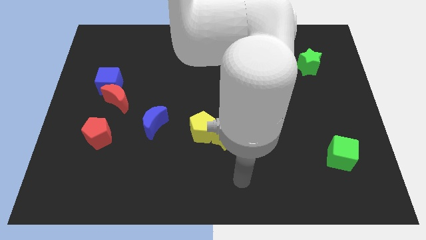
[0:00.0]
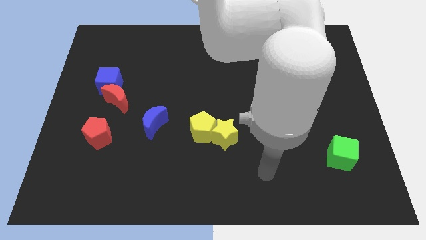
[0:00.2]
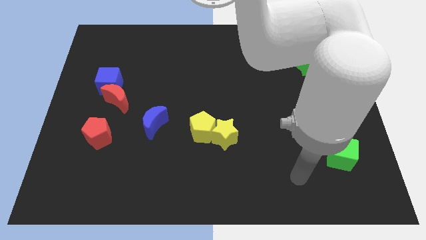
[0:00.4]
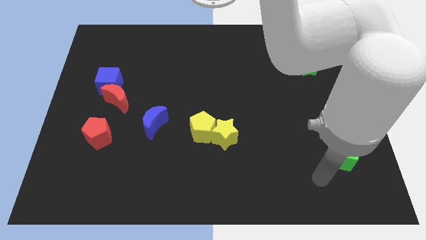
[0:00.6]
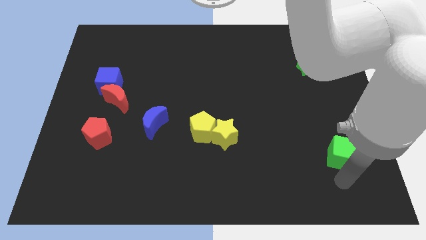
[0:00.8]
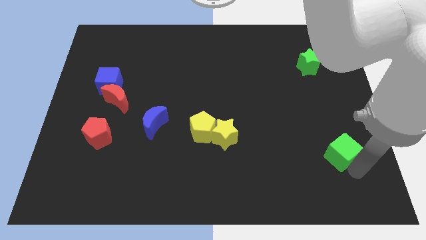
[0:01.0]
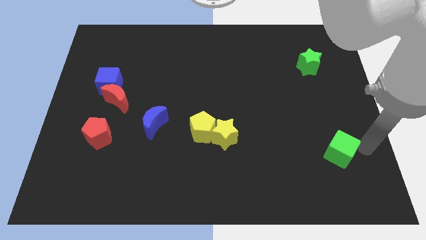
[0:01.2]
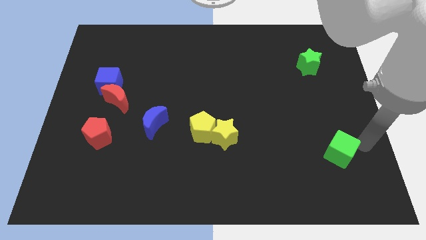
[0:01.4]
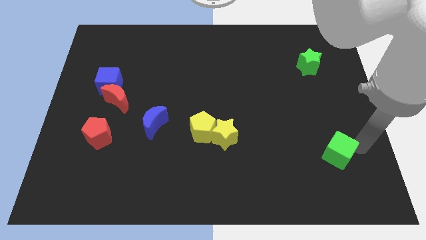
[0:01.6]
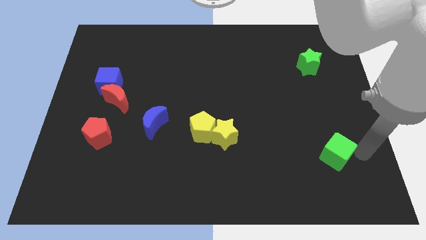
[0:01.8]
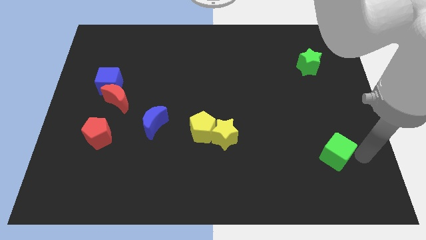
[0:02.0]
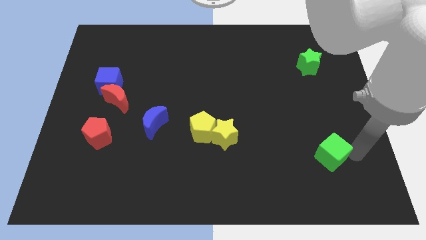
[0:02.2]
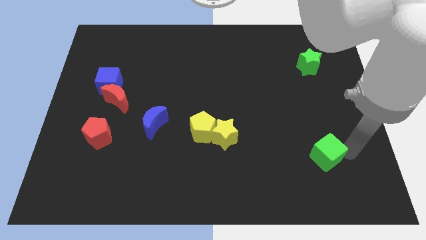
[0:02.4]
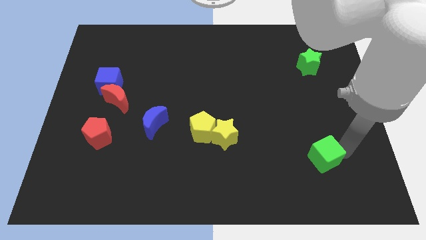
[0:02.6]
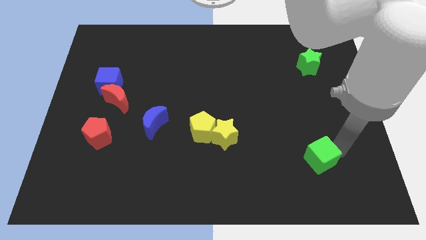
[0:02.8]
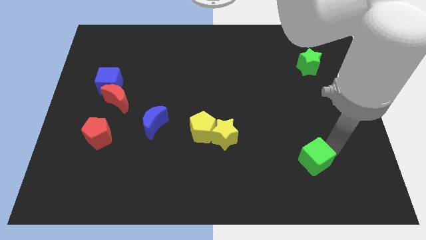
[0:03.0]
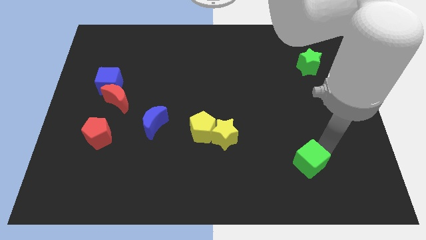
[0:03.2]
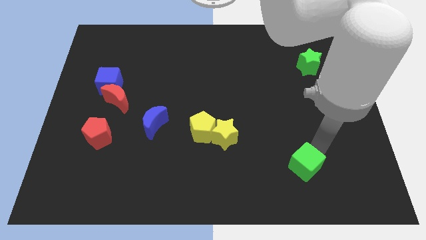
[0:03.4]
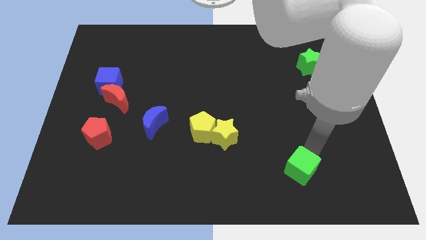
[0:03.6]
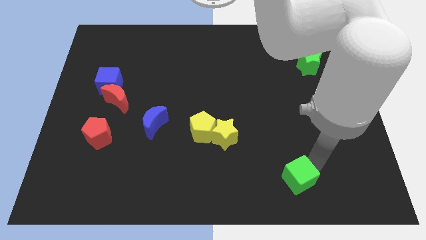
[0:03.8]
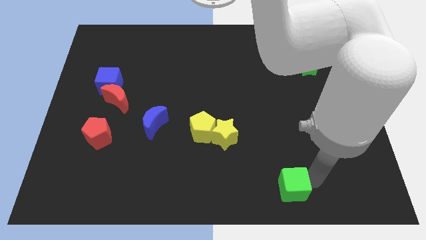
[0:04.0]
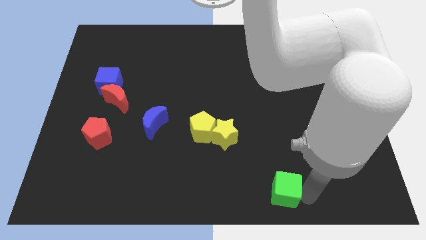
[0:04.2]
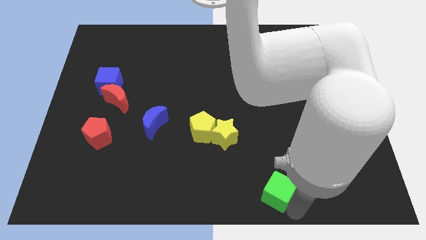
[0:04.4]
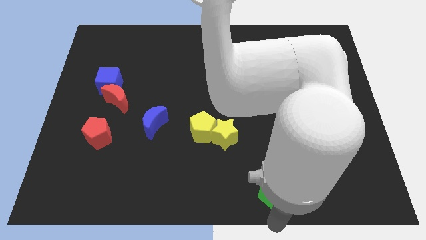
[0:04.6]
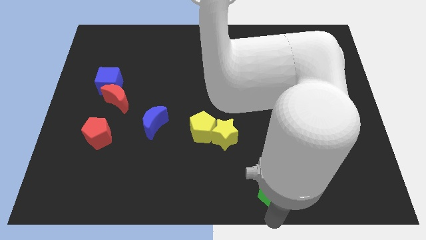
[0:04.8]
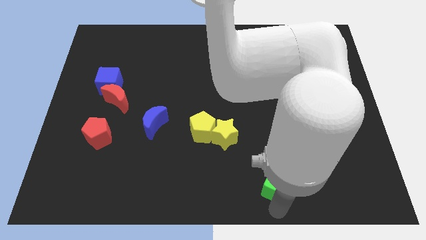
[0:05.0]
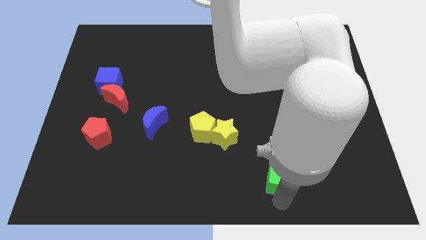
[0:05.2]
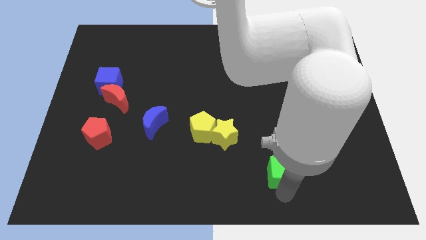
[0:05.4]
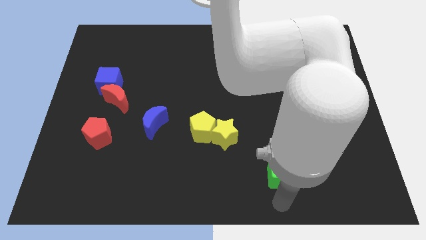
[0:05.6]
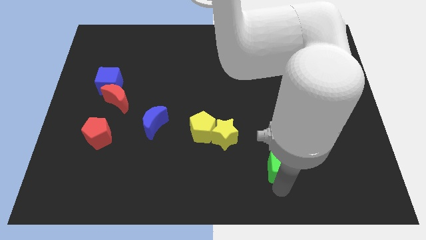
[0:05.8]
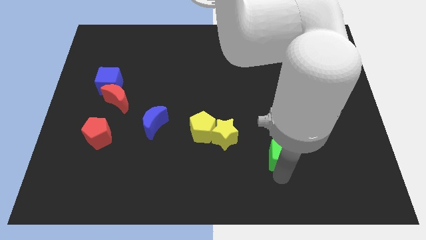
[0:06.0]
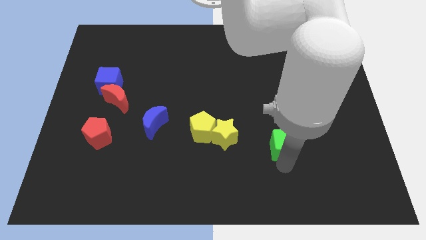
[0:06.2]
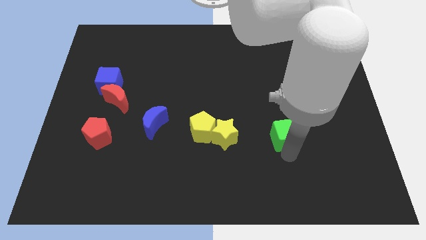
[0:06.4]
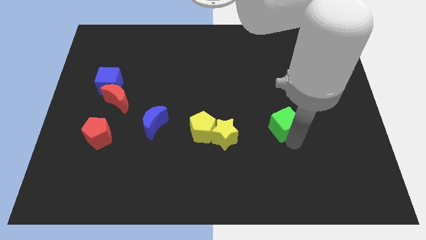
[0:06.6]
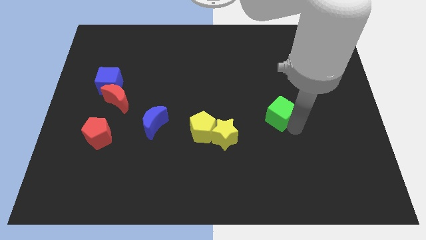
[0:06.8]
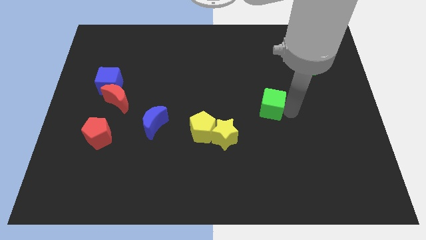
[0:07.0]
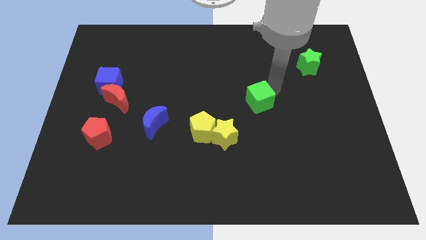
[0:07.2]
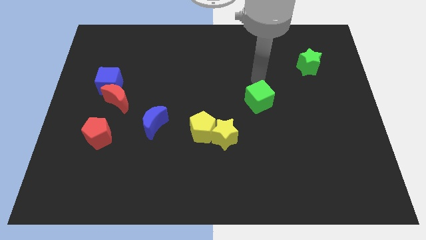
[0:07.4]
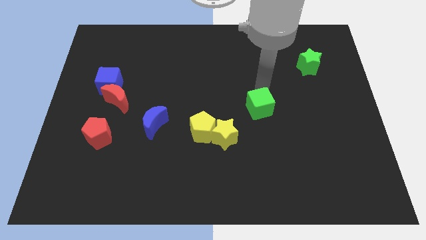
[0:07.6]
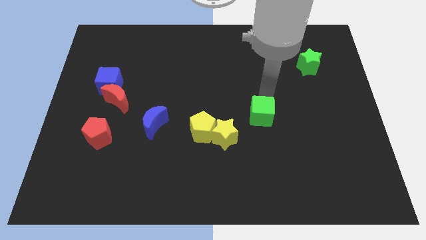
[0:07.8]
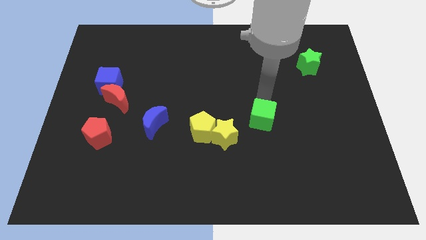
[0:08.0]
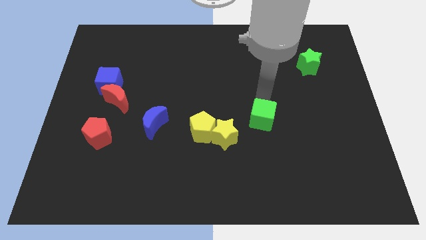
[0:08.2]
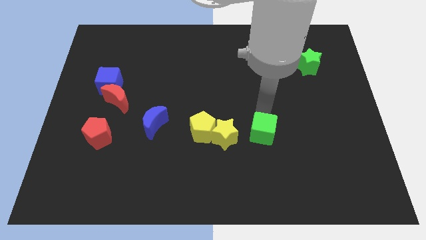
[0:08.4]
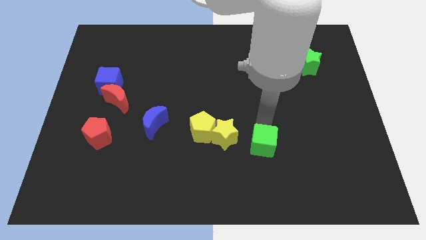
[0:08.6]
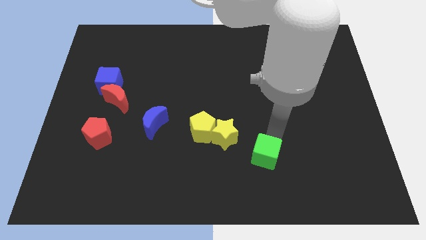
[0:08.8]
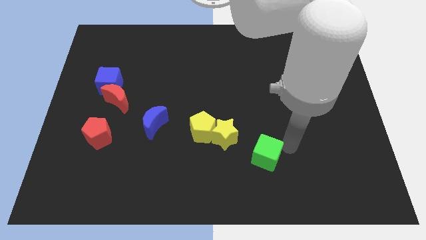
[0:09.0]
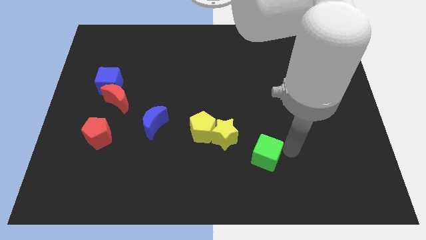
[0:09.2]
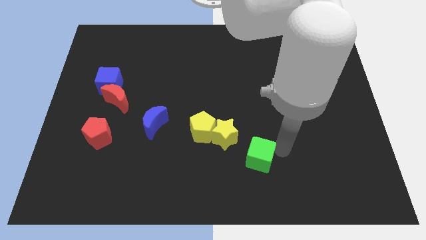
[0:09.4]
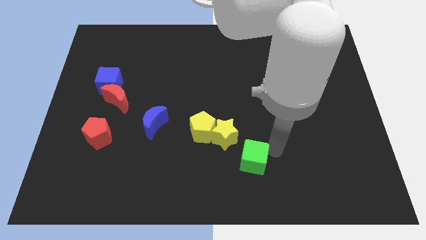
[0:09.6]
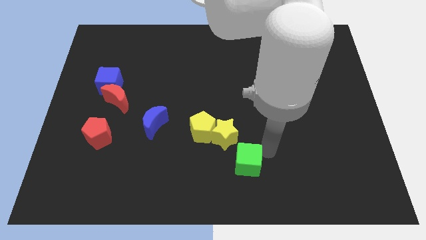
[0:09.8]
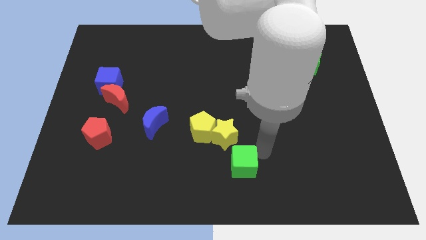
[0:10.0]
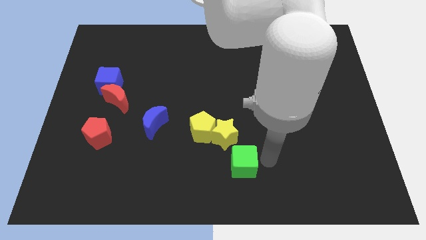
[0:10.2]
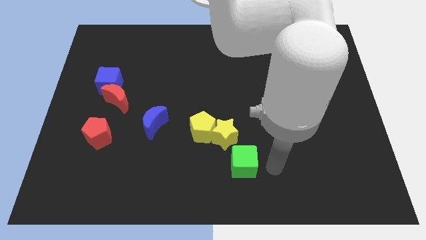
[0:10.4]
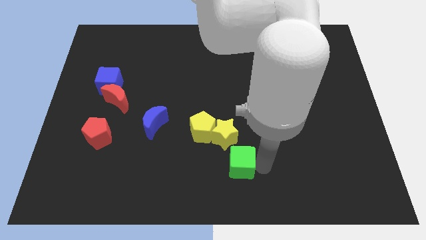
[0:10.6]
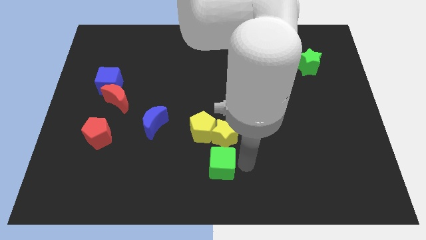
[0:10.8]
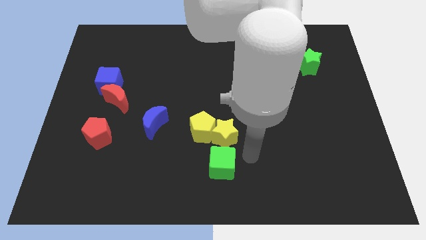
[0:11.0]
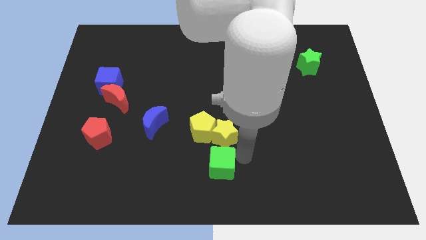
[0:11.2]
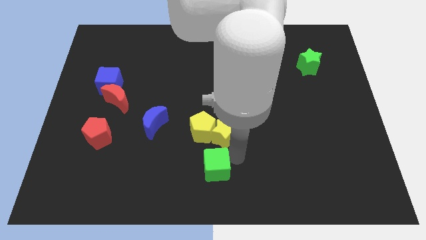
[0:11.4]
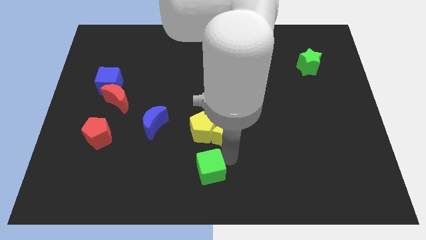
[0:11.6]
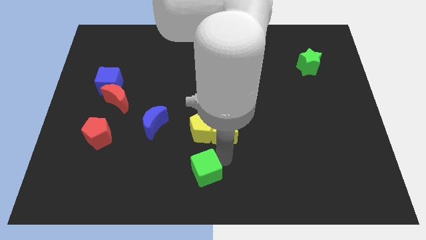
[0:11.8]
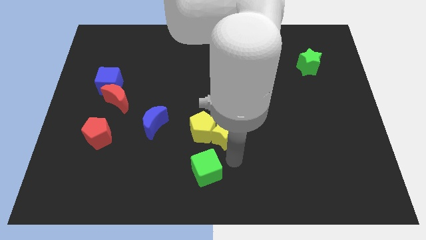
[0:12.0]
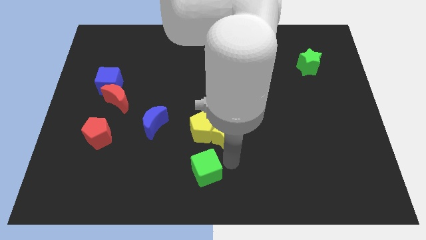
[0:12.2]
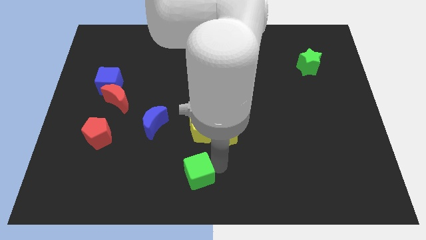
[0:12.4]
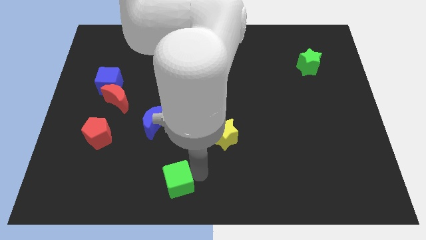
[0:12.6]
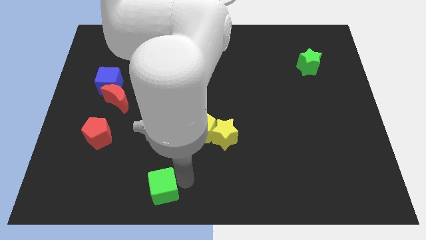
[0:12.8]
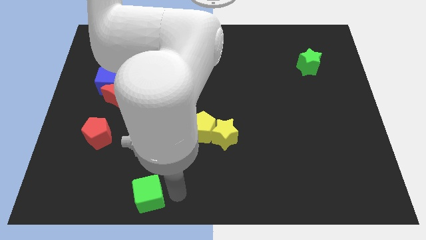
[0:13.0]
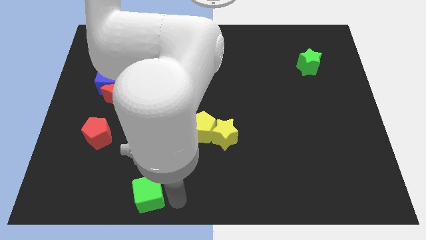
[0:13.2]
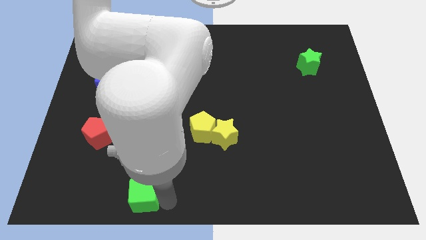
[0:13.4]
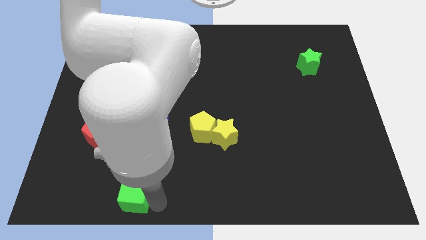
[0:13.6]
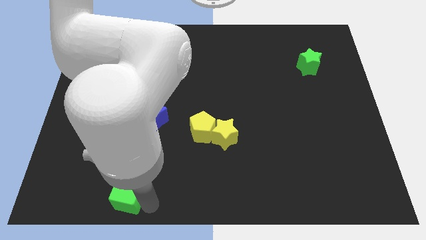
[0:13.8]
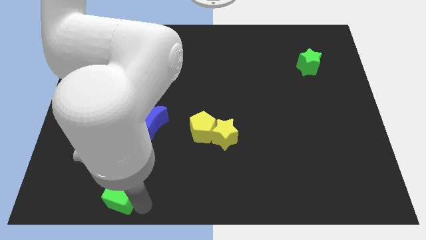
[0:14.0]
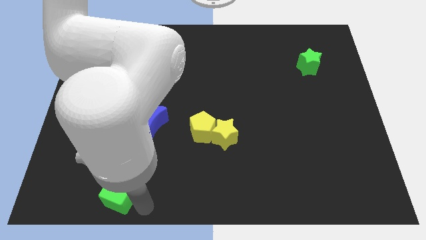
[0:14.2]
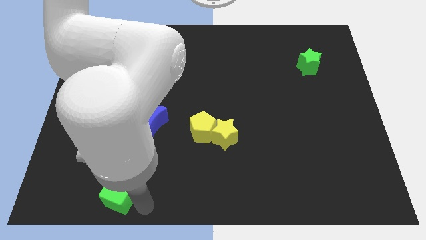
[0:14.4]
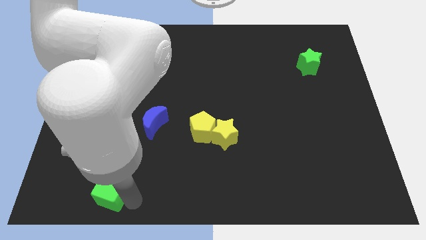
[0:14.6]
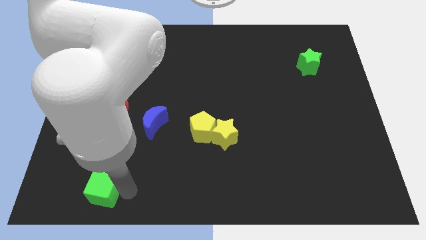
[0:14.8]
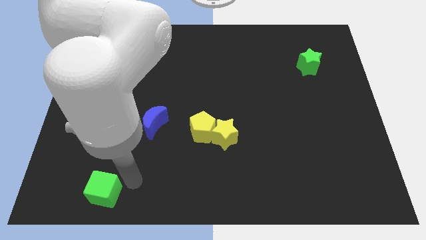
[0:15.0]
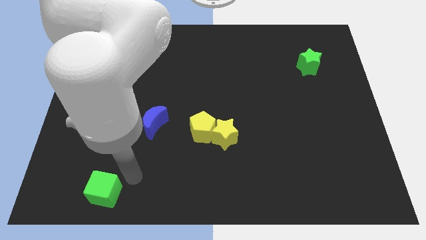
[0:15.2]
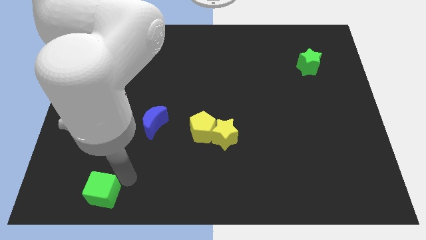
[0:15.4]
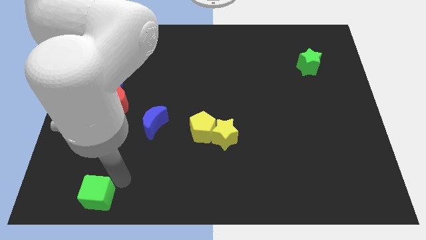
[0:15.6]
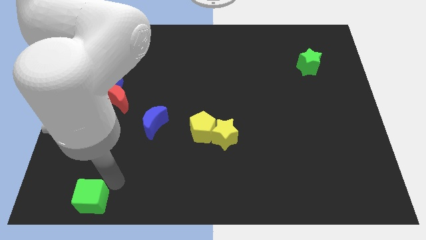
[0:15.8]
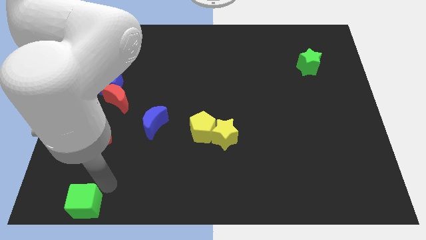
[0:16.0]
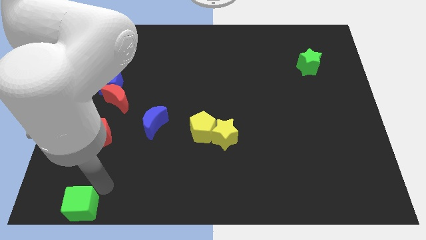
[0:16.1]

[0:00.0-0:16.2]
slide the green cube to the bottom left of the board
